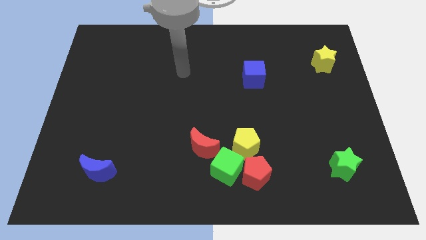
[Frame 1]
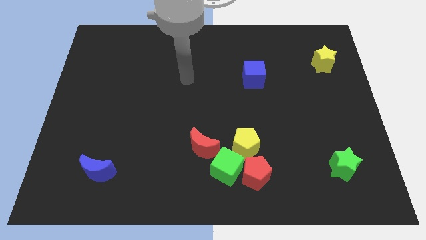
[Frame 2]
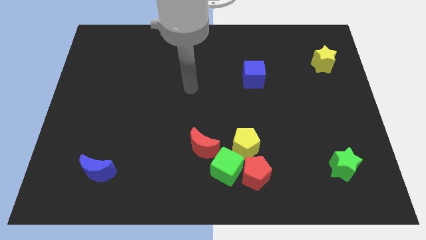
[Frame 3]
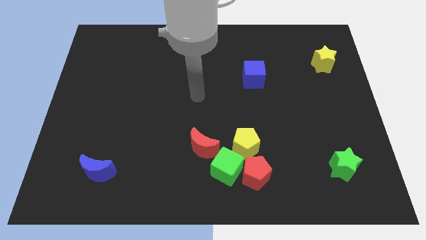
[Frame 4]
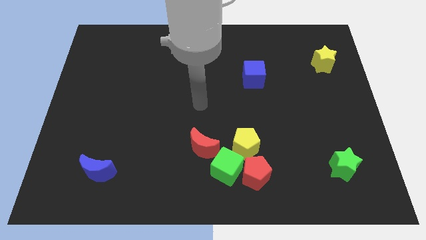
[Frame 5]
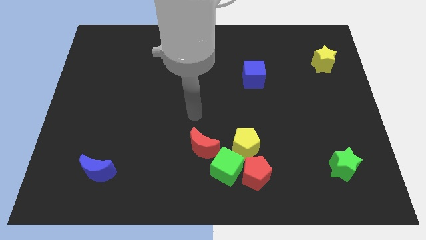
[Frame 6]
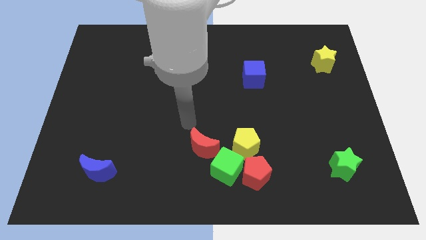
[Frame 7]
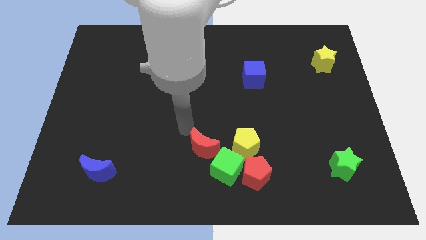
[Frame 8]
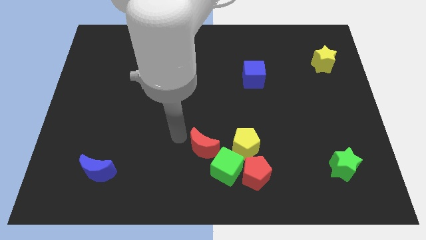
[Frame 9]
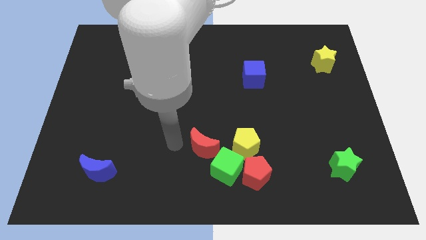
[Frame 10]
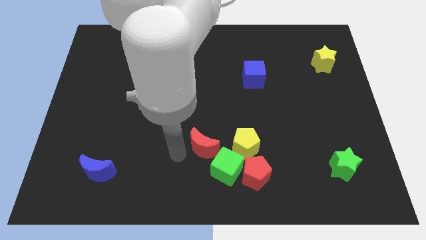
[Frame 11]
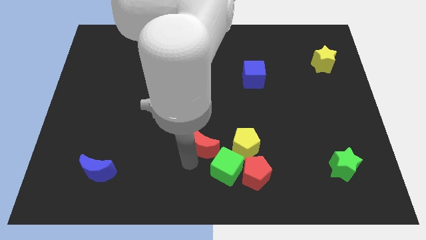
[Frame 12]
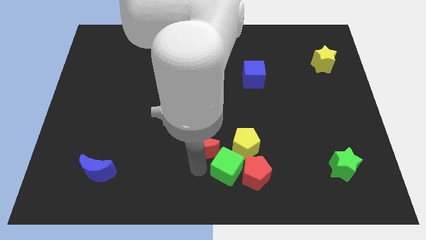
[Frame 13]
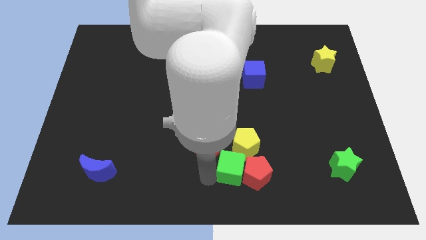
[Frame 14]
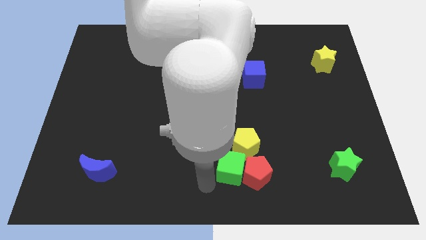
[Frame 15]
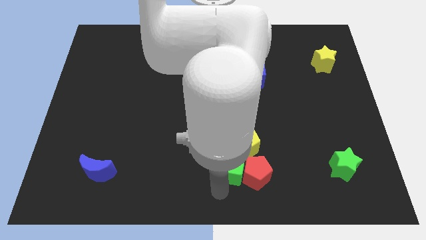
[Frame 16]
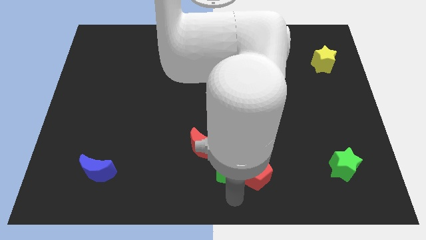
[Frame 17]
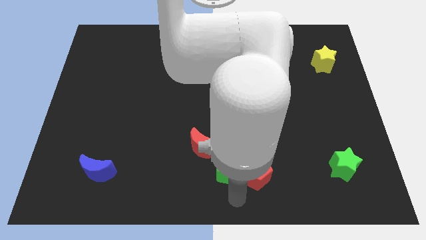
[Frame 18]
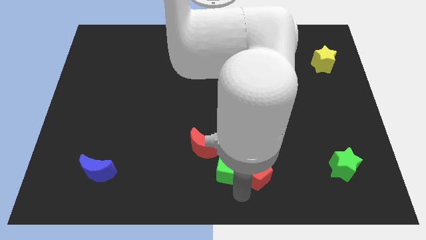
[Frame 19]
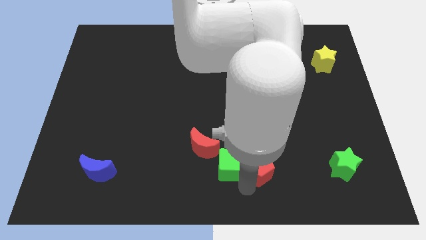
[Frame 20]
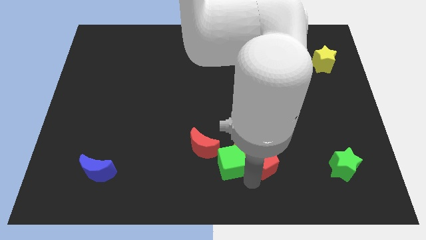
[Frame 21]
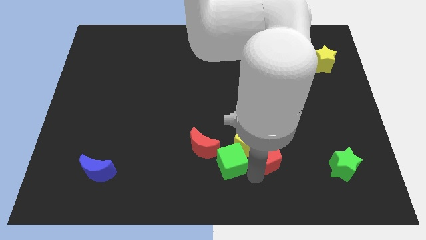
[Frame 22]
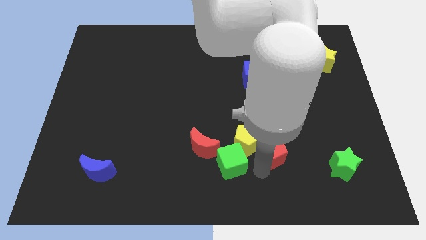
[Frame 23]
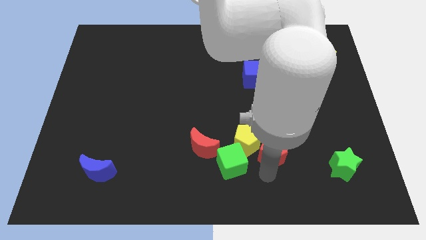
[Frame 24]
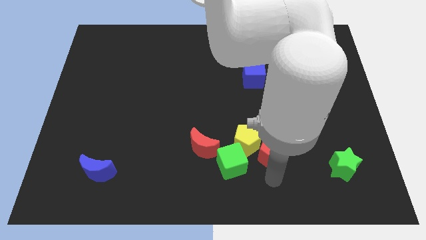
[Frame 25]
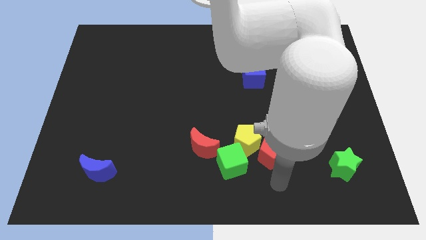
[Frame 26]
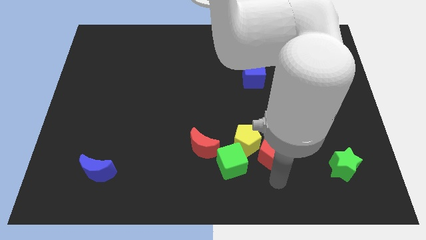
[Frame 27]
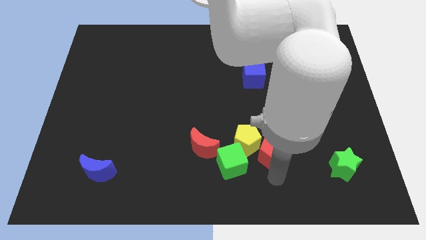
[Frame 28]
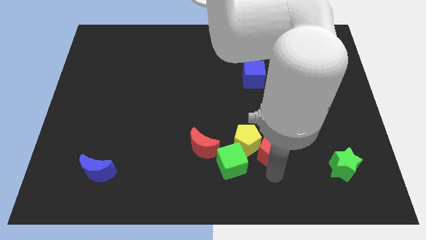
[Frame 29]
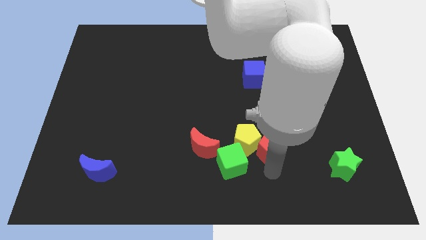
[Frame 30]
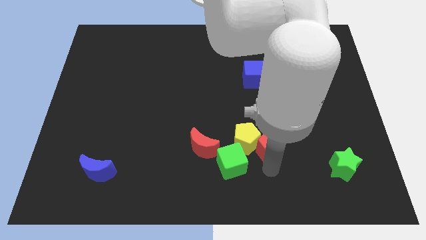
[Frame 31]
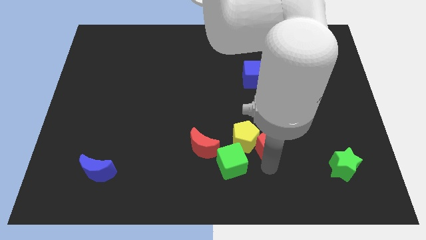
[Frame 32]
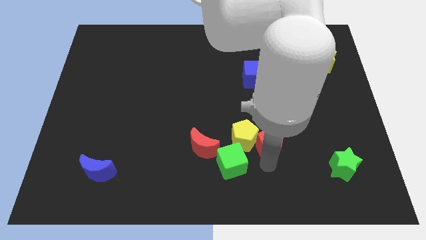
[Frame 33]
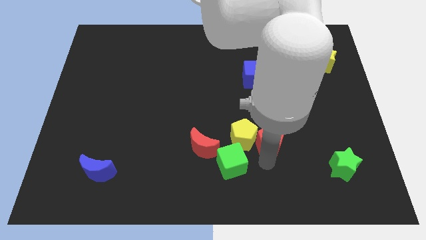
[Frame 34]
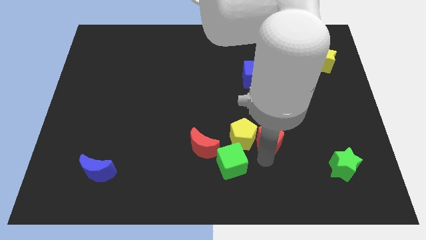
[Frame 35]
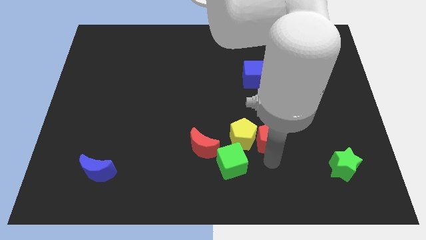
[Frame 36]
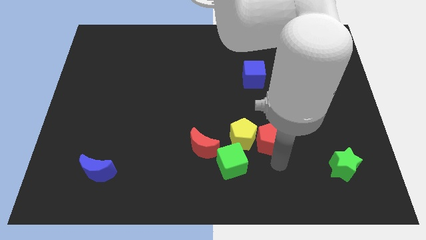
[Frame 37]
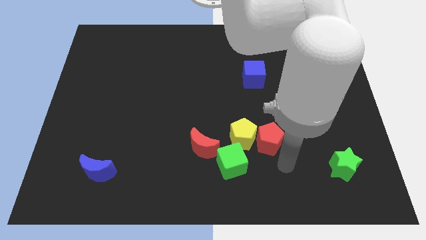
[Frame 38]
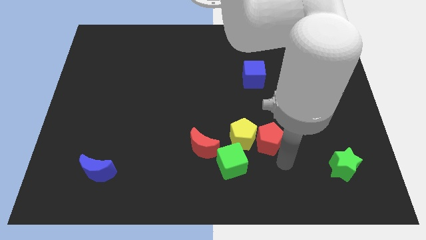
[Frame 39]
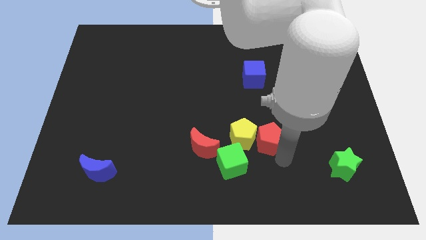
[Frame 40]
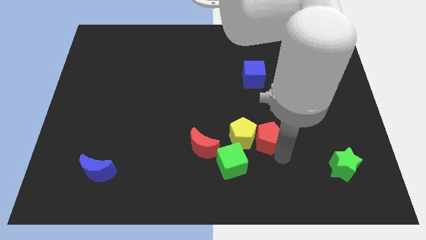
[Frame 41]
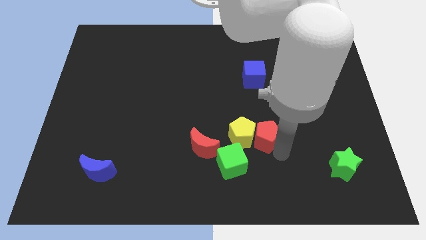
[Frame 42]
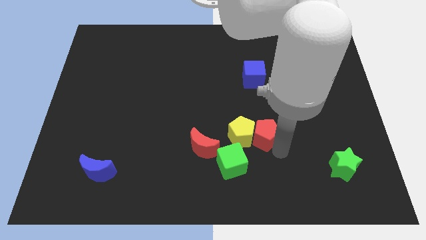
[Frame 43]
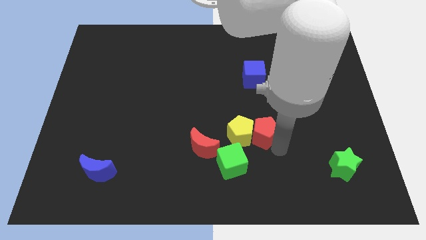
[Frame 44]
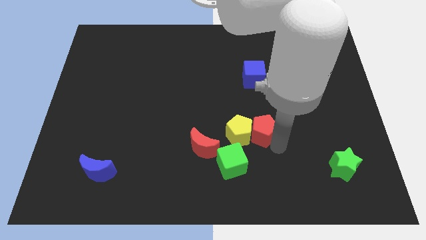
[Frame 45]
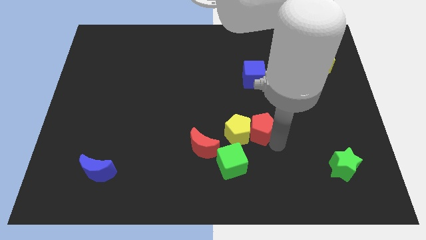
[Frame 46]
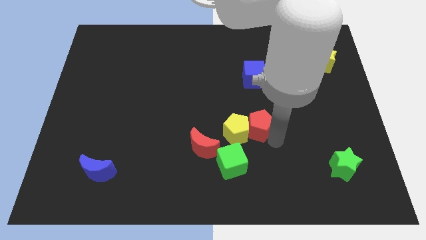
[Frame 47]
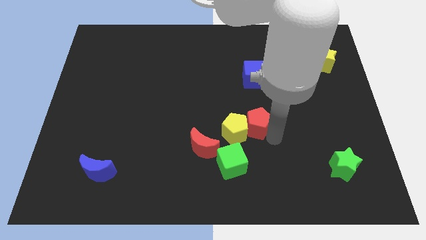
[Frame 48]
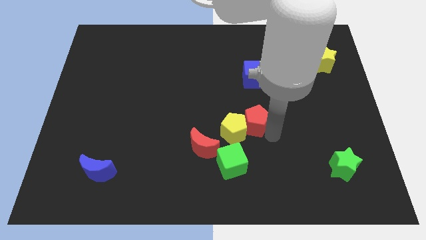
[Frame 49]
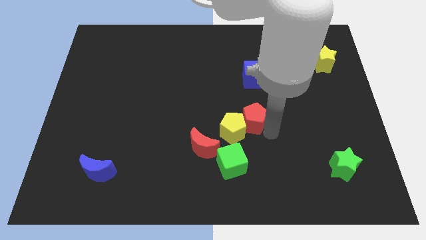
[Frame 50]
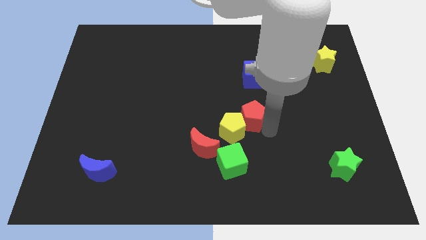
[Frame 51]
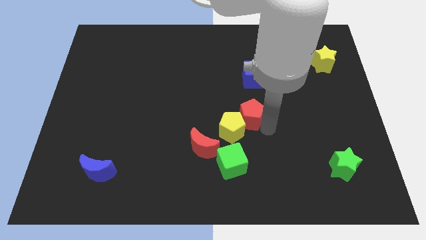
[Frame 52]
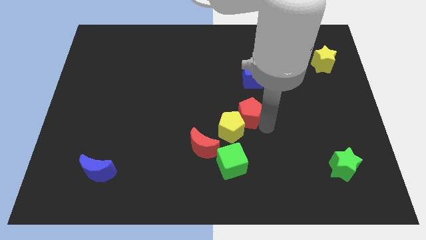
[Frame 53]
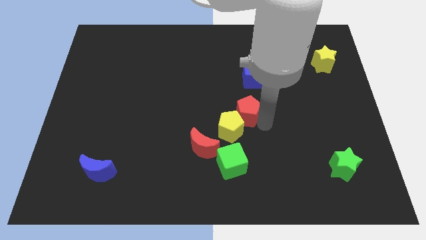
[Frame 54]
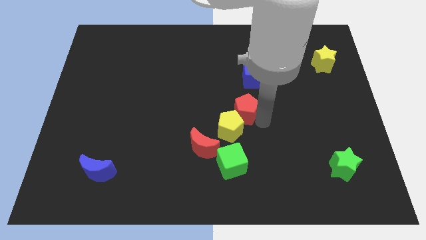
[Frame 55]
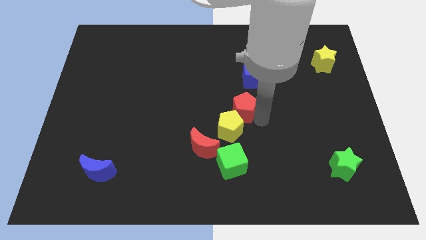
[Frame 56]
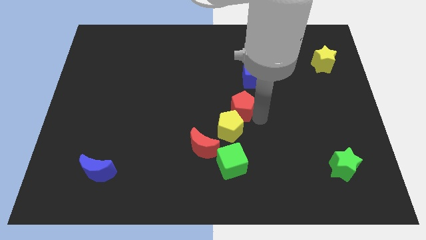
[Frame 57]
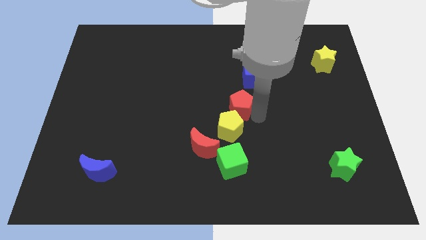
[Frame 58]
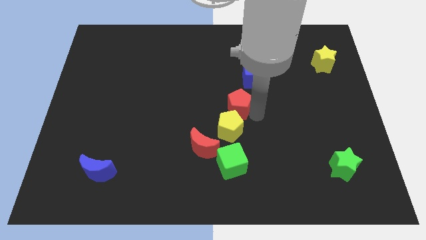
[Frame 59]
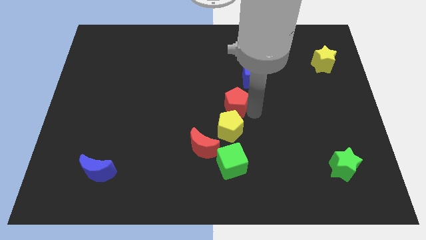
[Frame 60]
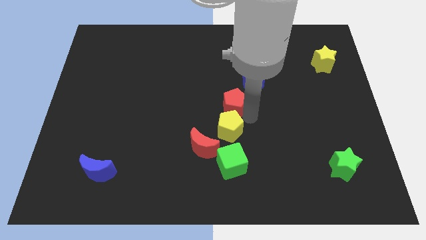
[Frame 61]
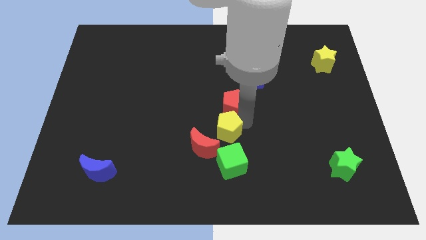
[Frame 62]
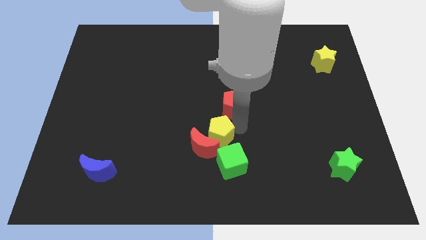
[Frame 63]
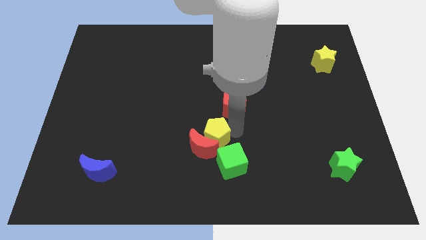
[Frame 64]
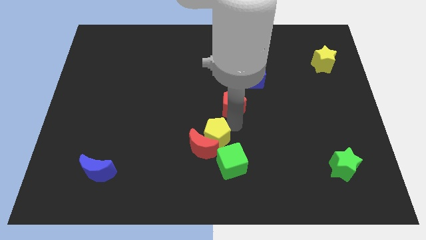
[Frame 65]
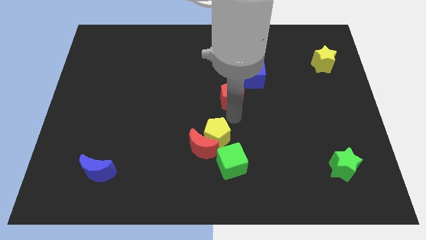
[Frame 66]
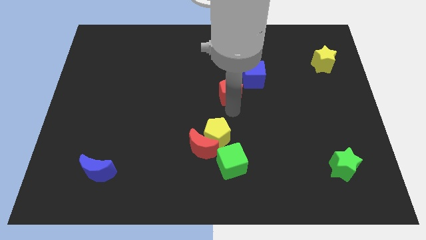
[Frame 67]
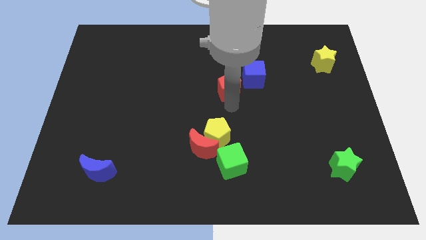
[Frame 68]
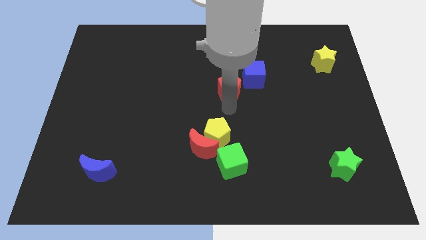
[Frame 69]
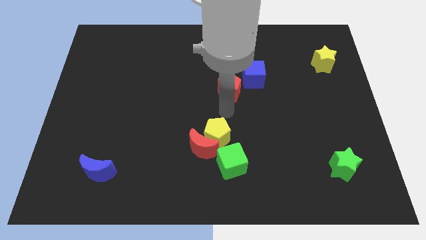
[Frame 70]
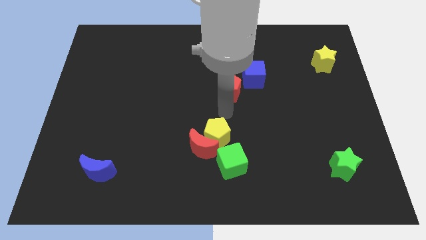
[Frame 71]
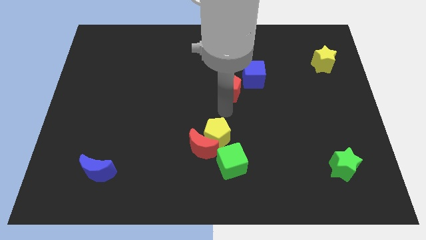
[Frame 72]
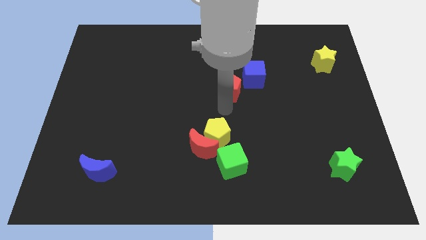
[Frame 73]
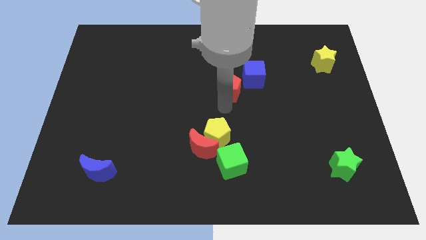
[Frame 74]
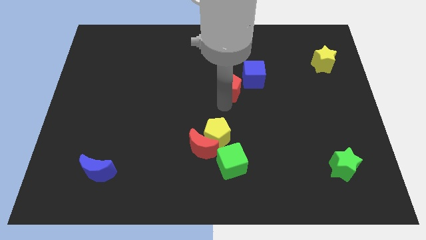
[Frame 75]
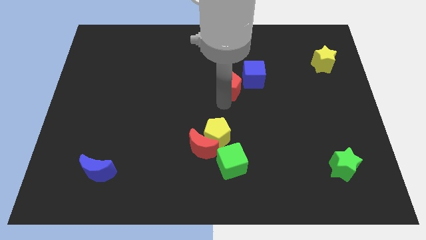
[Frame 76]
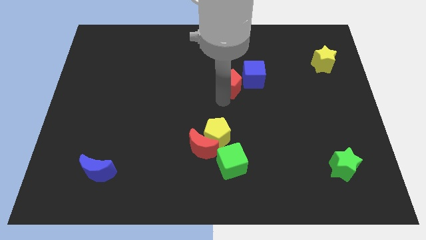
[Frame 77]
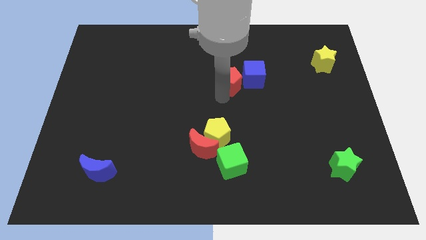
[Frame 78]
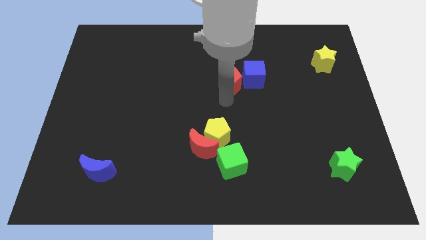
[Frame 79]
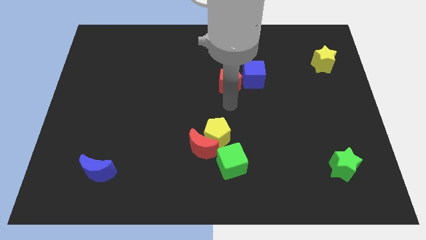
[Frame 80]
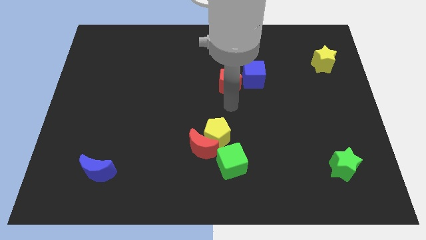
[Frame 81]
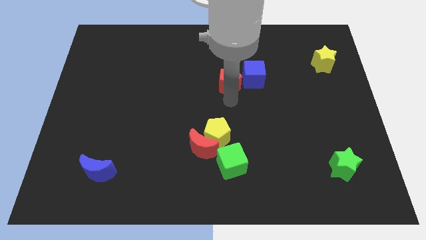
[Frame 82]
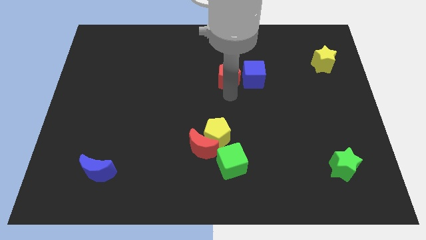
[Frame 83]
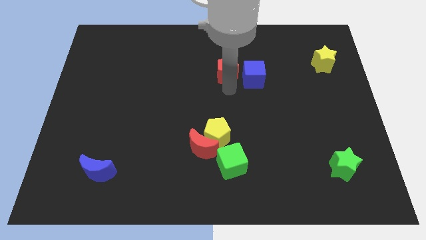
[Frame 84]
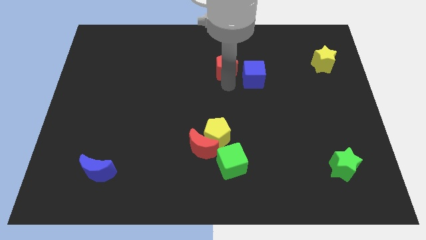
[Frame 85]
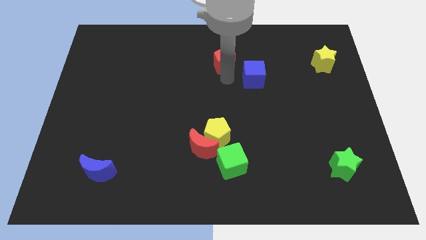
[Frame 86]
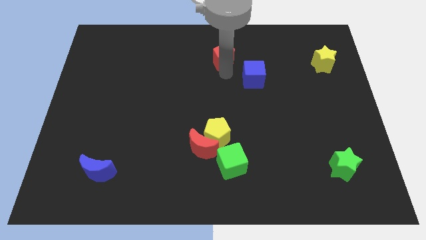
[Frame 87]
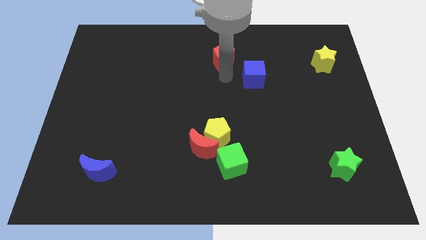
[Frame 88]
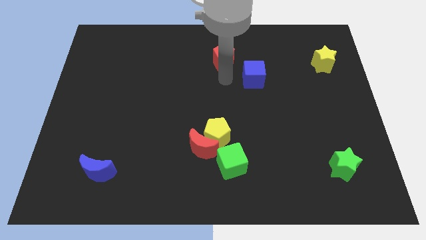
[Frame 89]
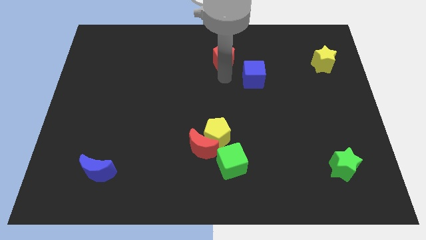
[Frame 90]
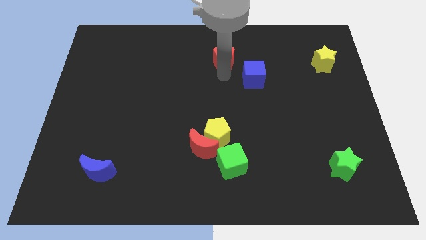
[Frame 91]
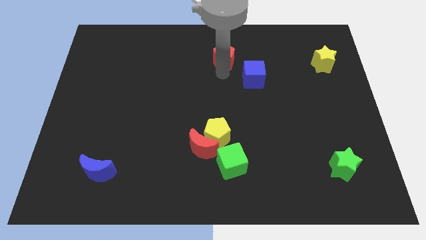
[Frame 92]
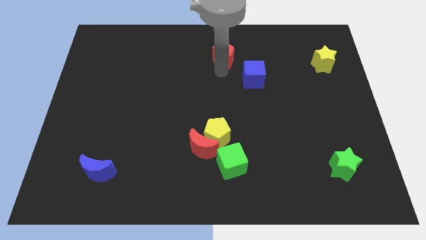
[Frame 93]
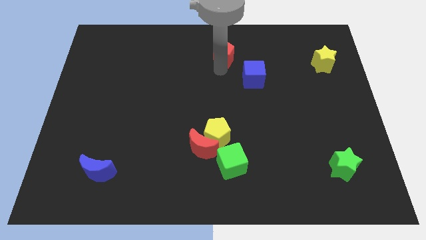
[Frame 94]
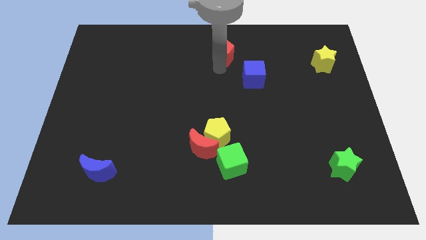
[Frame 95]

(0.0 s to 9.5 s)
move the red pentagon to the top side
